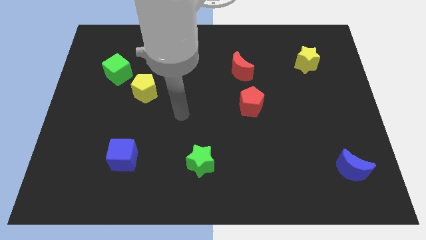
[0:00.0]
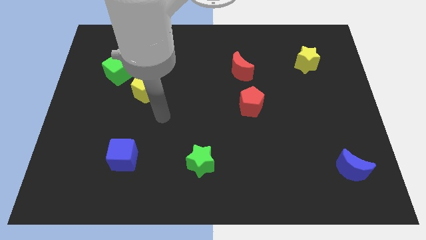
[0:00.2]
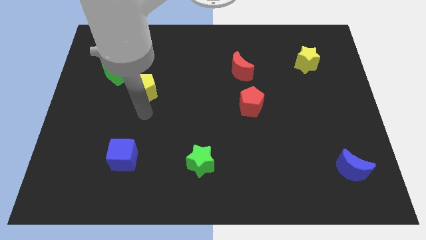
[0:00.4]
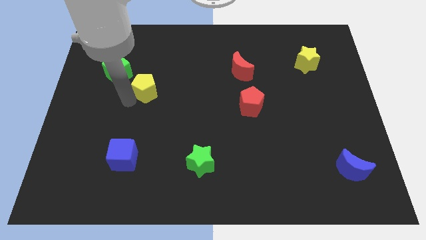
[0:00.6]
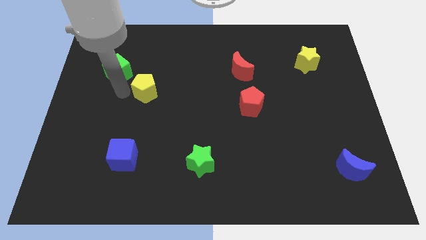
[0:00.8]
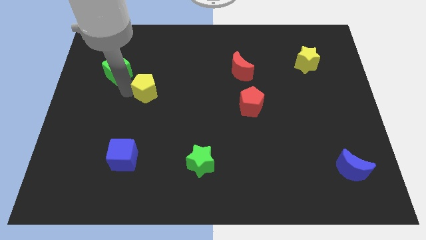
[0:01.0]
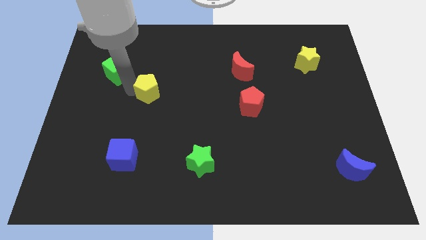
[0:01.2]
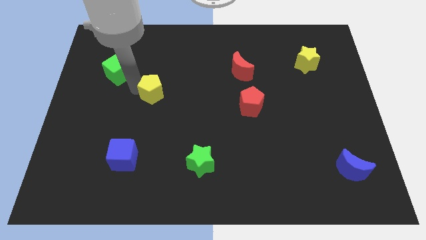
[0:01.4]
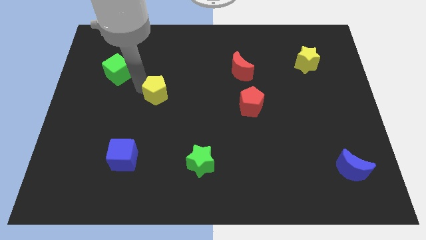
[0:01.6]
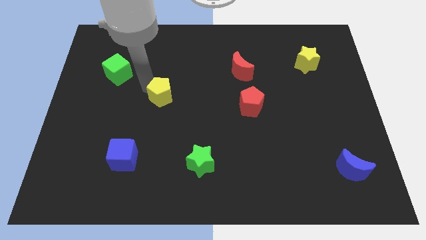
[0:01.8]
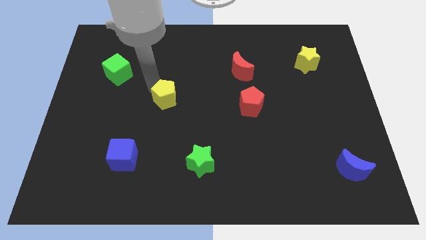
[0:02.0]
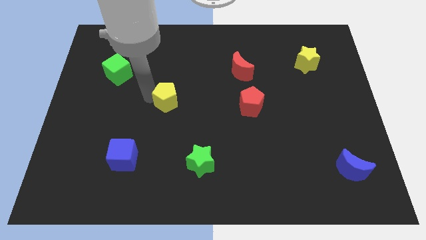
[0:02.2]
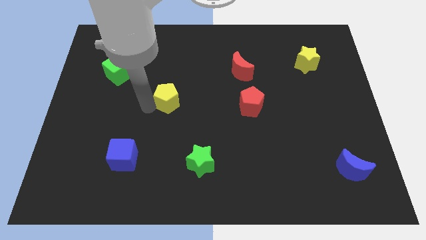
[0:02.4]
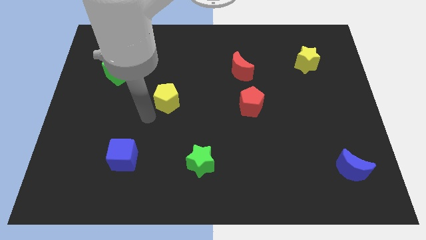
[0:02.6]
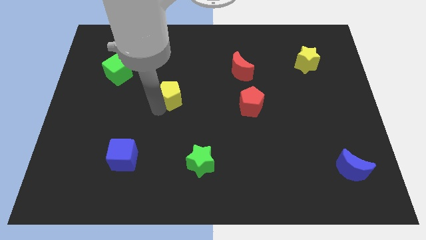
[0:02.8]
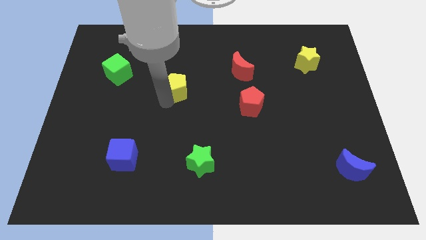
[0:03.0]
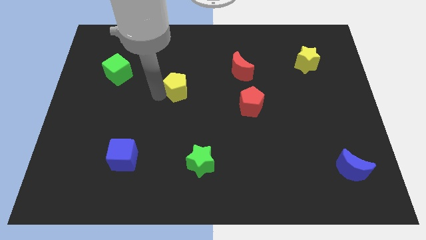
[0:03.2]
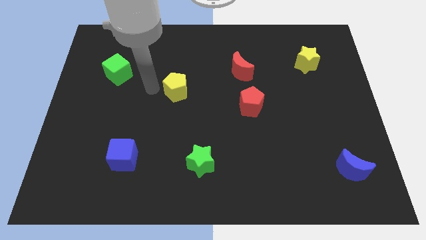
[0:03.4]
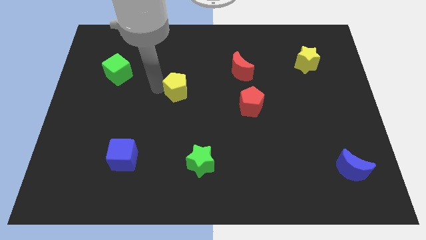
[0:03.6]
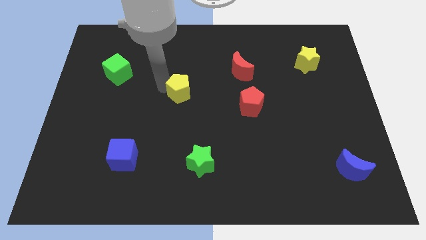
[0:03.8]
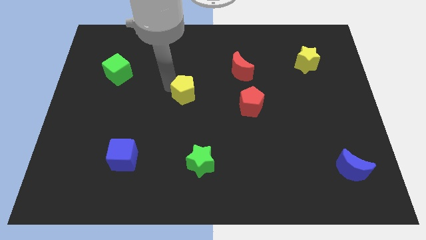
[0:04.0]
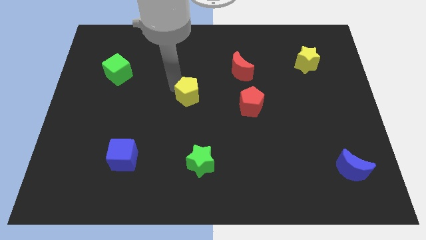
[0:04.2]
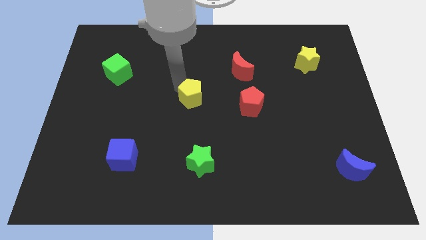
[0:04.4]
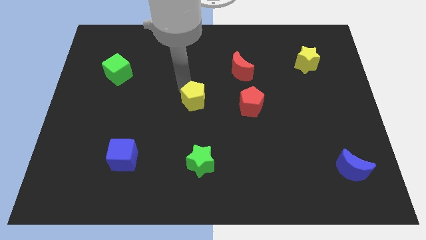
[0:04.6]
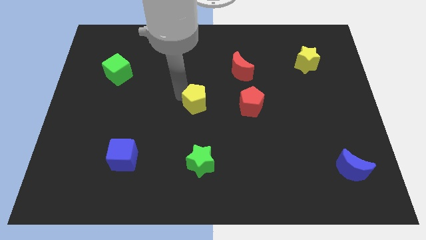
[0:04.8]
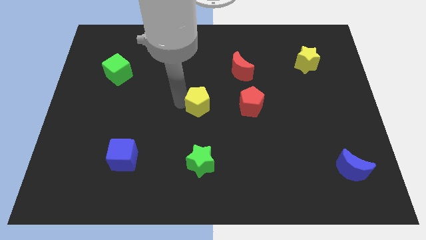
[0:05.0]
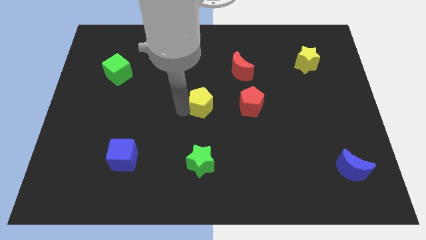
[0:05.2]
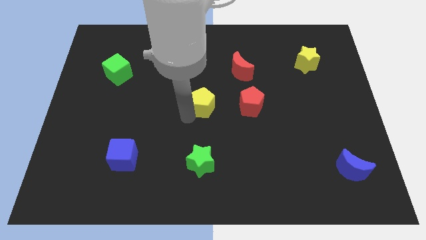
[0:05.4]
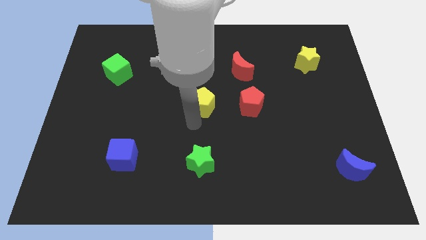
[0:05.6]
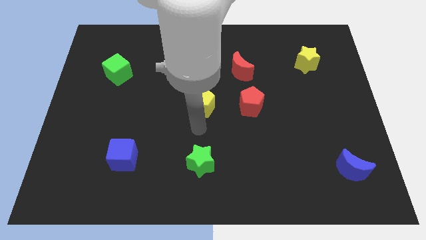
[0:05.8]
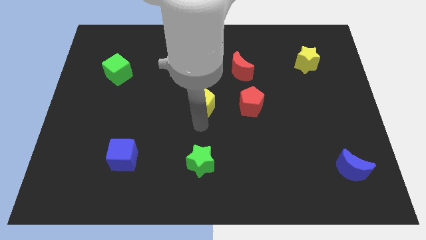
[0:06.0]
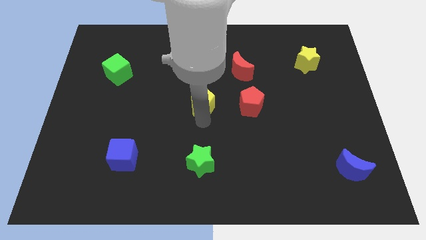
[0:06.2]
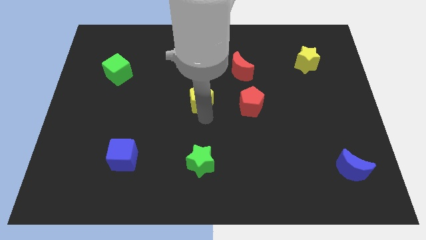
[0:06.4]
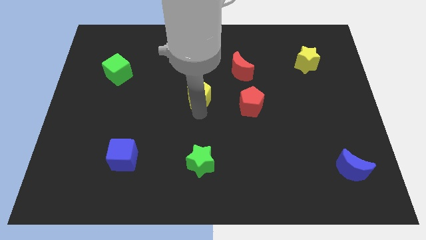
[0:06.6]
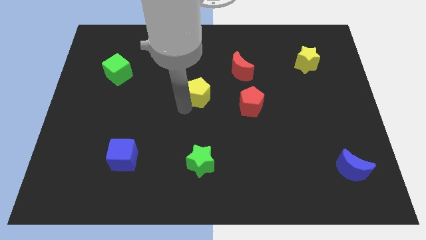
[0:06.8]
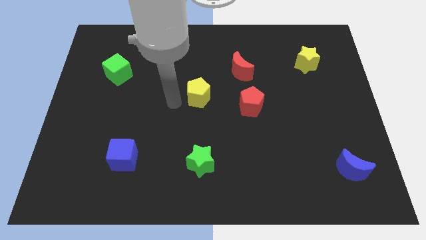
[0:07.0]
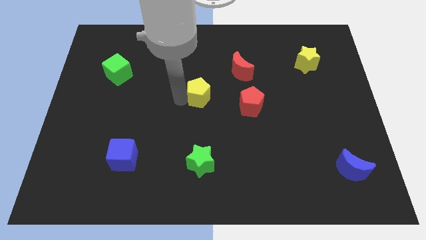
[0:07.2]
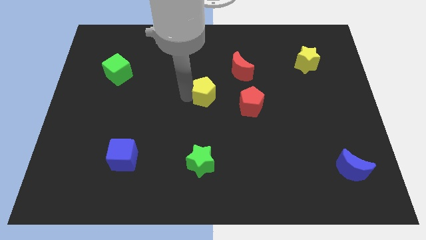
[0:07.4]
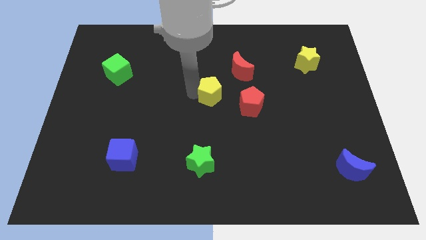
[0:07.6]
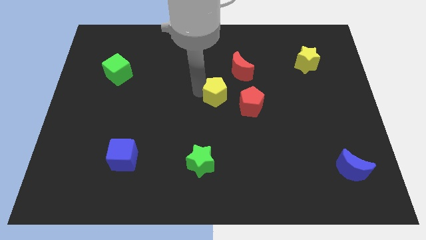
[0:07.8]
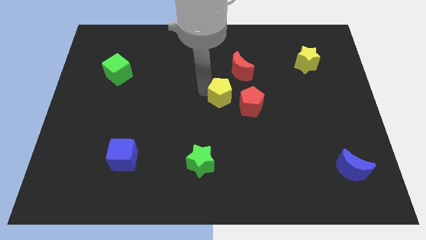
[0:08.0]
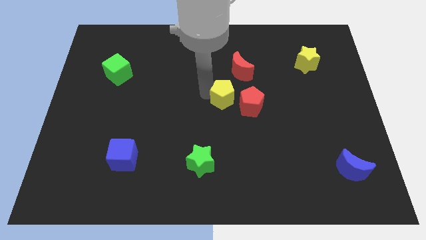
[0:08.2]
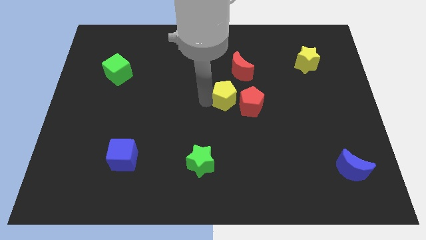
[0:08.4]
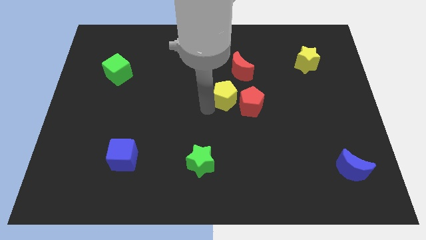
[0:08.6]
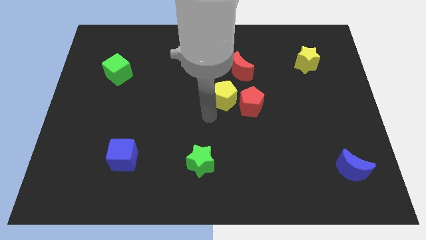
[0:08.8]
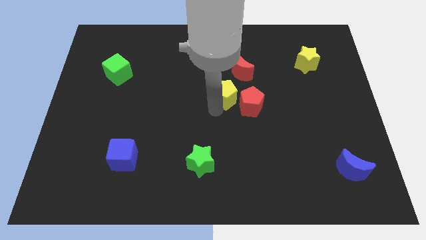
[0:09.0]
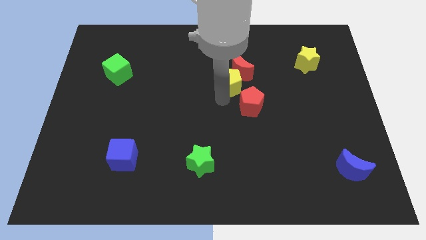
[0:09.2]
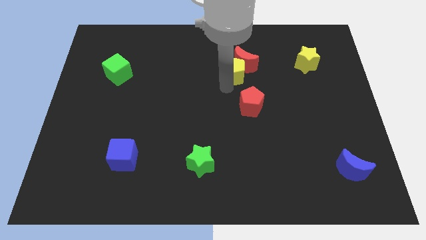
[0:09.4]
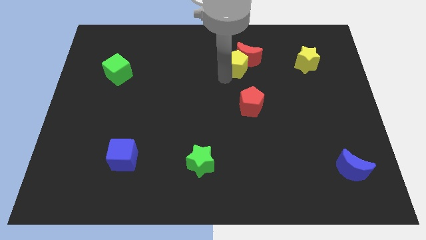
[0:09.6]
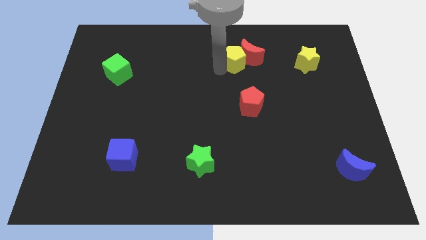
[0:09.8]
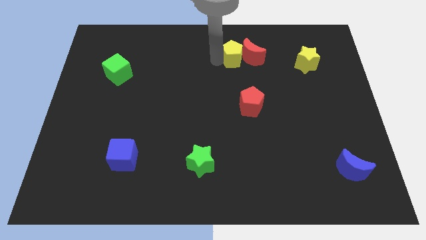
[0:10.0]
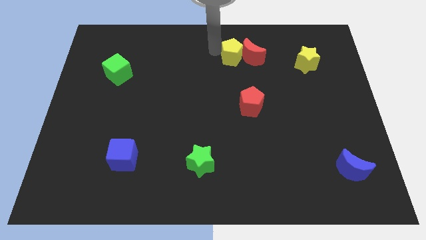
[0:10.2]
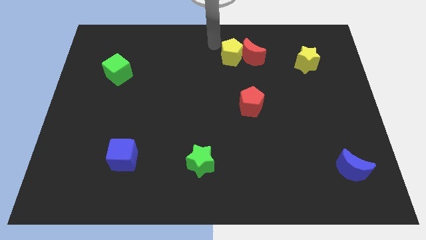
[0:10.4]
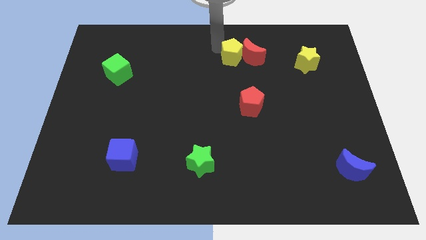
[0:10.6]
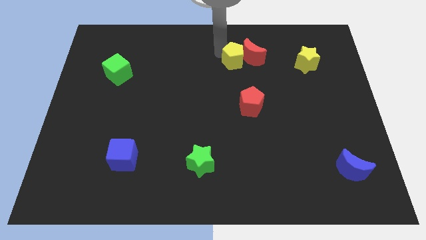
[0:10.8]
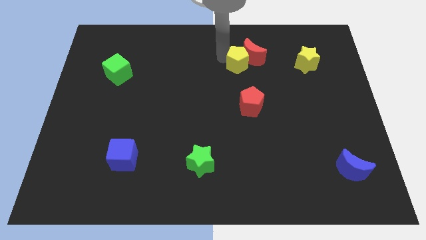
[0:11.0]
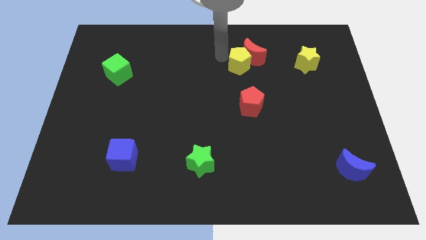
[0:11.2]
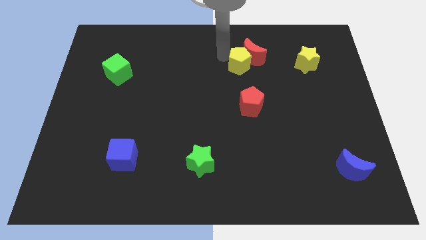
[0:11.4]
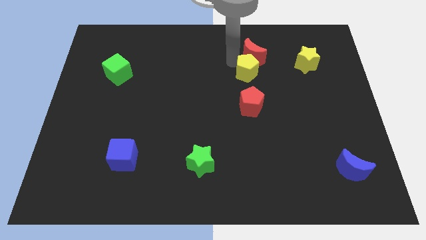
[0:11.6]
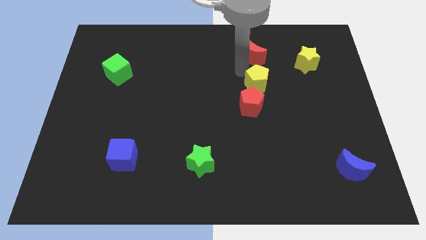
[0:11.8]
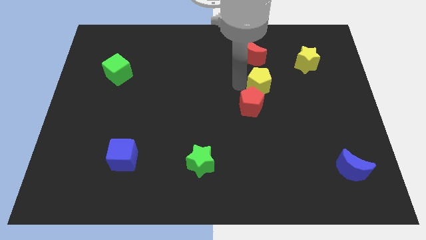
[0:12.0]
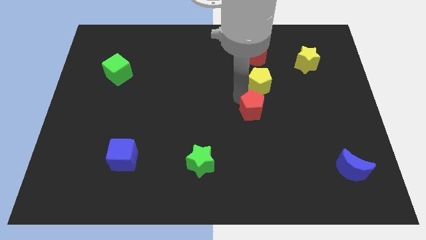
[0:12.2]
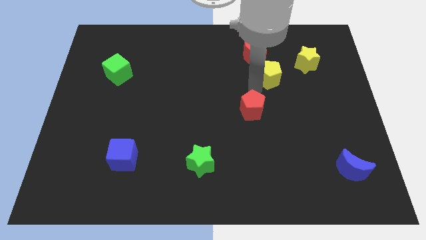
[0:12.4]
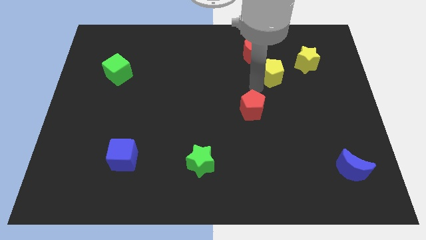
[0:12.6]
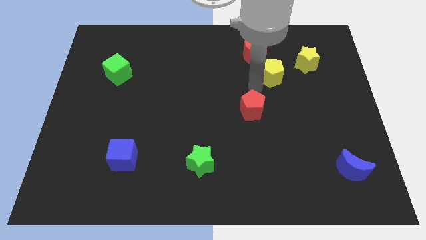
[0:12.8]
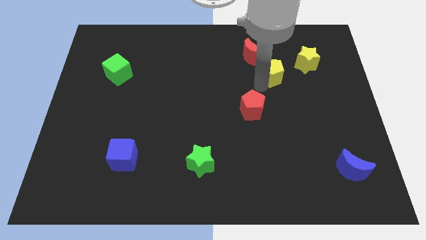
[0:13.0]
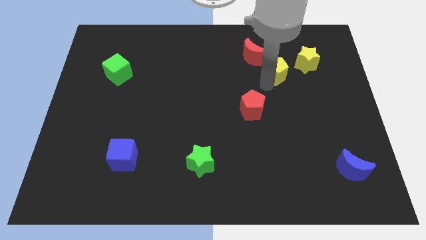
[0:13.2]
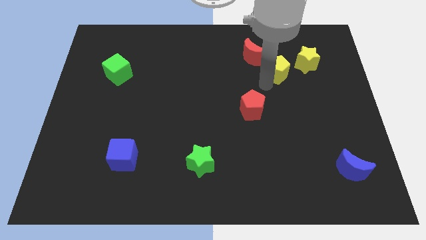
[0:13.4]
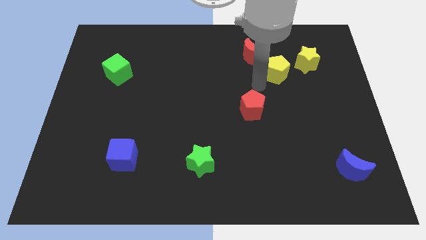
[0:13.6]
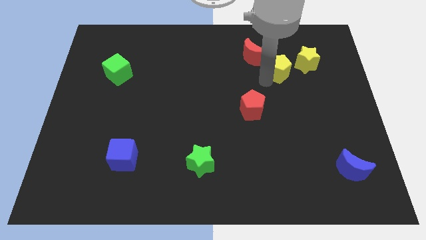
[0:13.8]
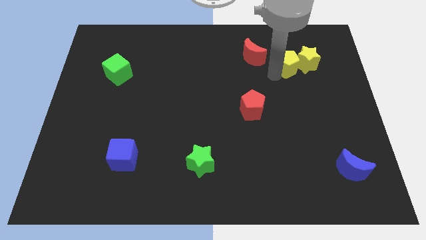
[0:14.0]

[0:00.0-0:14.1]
put the yellow pentagon close to the yellow star
